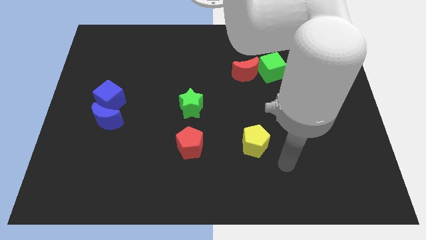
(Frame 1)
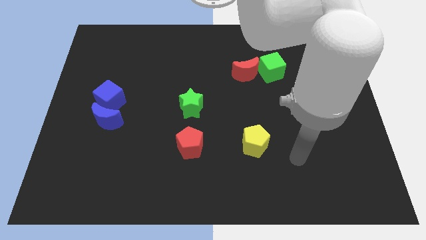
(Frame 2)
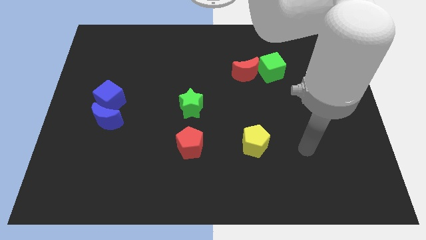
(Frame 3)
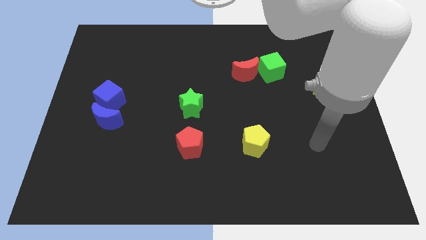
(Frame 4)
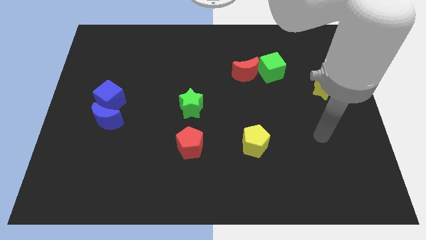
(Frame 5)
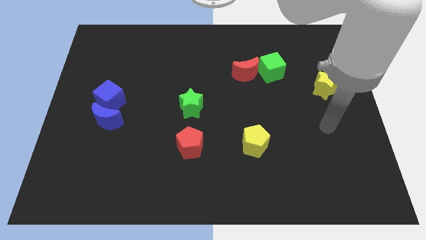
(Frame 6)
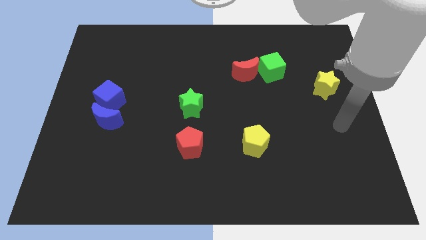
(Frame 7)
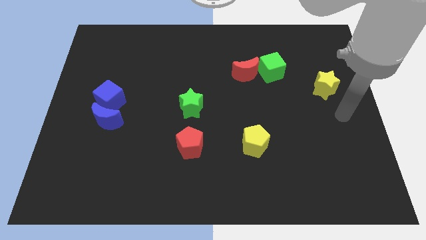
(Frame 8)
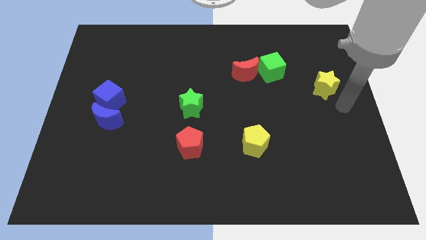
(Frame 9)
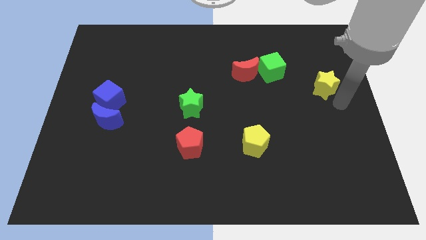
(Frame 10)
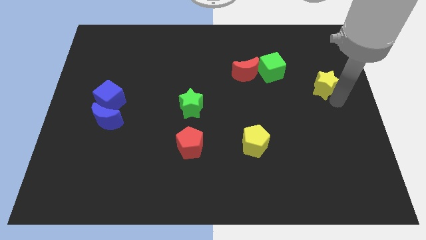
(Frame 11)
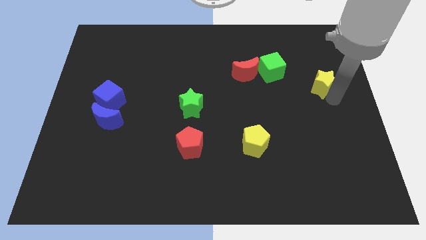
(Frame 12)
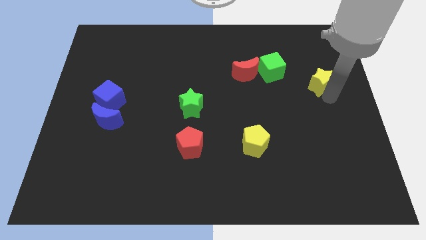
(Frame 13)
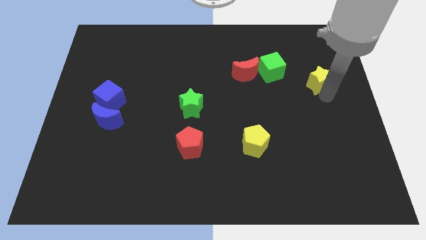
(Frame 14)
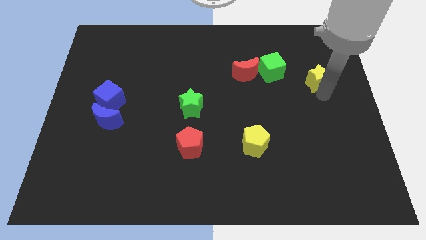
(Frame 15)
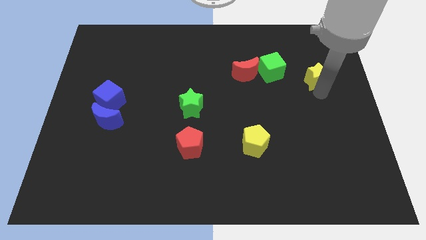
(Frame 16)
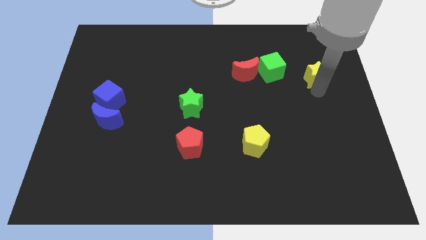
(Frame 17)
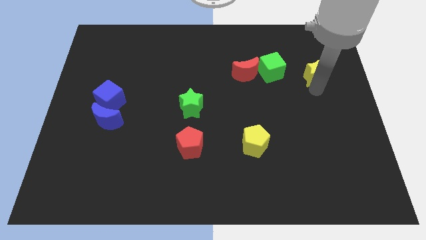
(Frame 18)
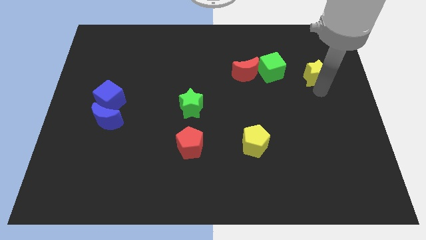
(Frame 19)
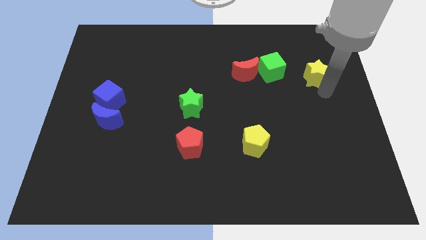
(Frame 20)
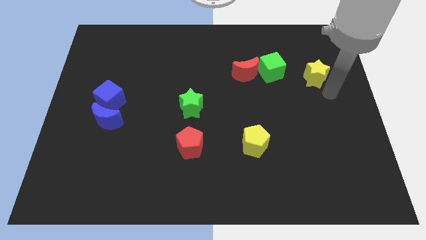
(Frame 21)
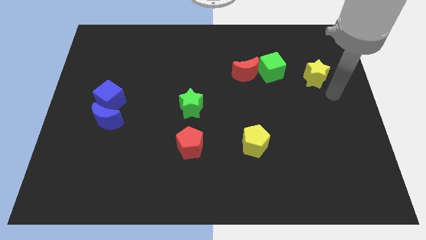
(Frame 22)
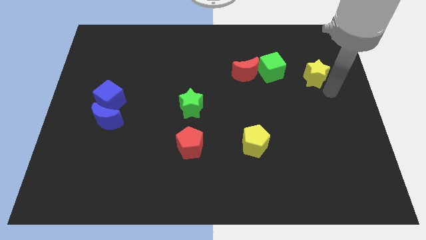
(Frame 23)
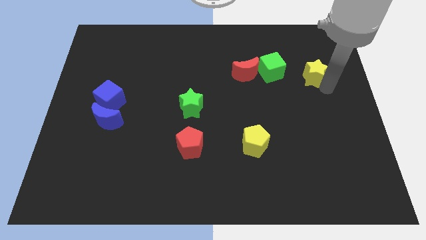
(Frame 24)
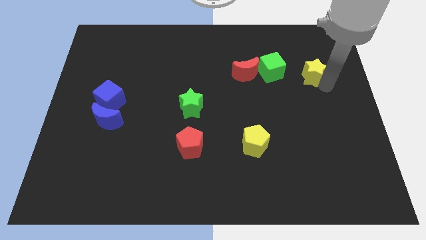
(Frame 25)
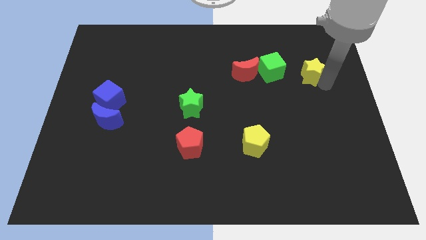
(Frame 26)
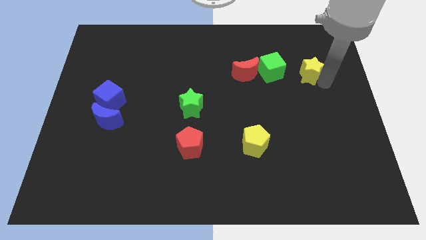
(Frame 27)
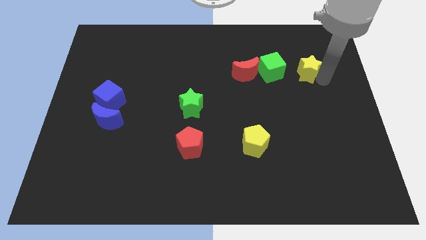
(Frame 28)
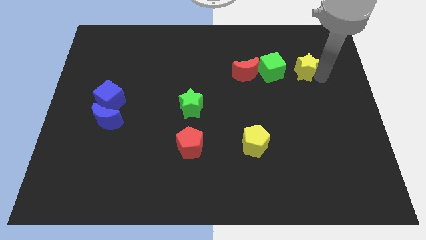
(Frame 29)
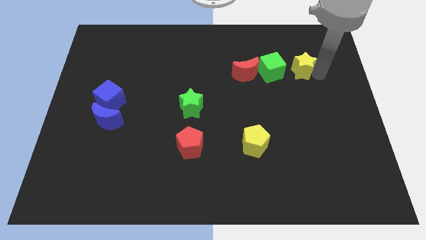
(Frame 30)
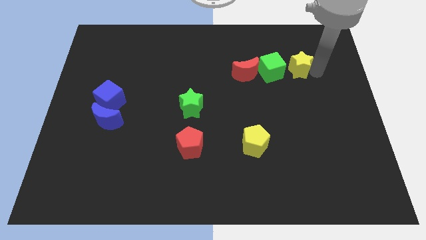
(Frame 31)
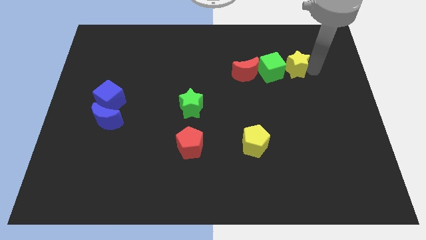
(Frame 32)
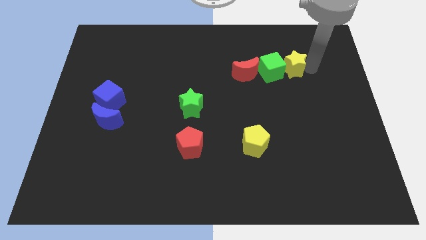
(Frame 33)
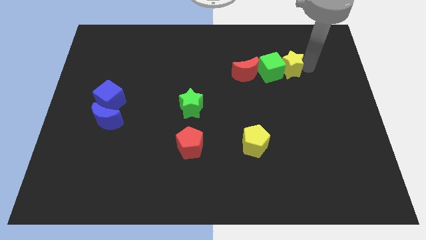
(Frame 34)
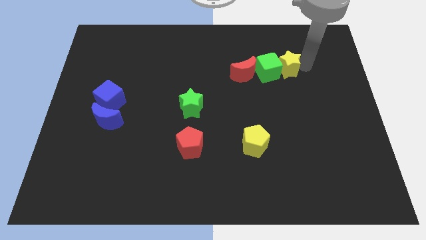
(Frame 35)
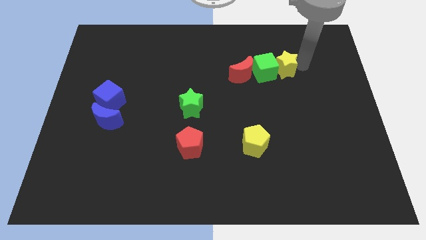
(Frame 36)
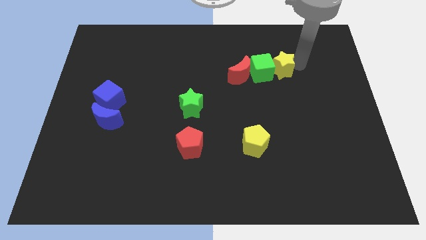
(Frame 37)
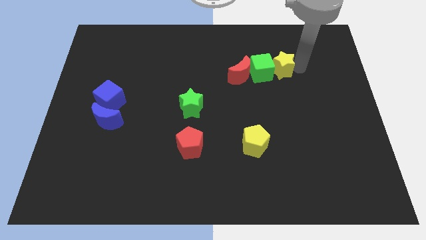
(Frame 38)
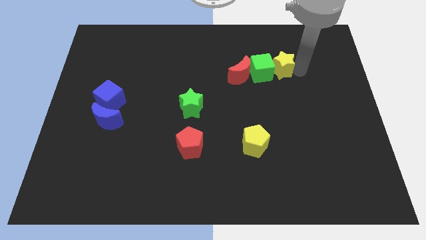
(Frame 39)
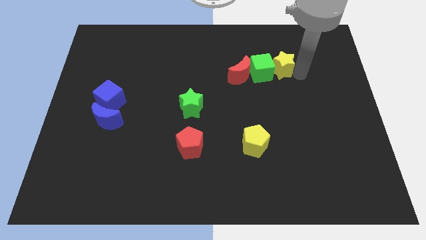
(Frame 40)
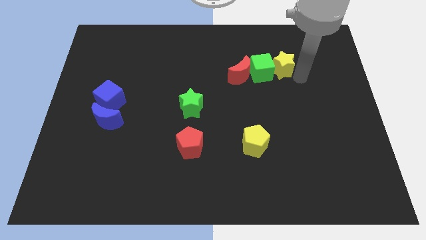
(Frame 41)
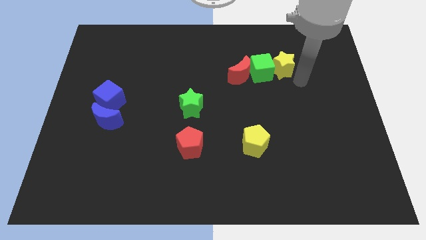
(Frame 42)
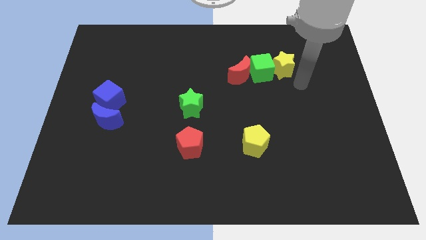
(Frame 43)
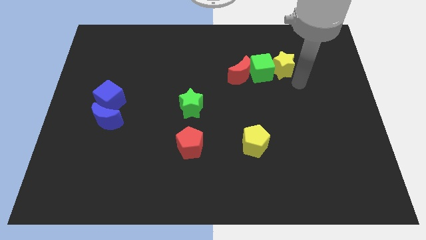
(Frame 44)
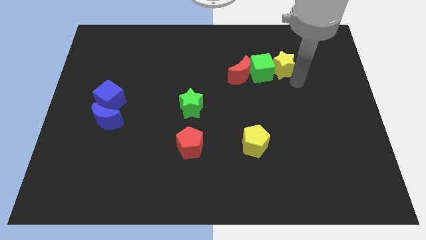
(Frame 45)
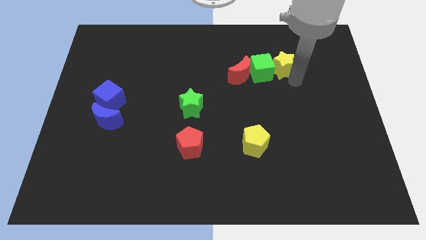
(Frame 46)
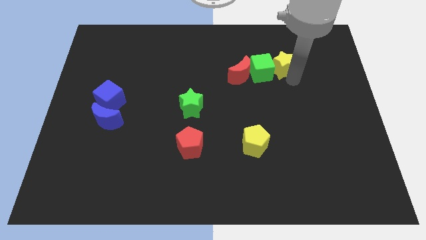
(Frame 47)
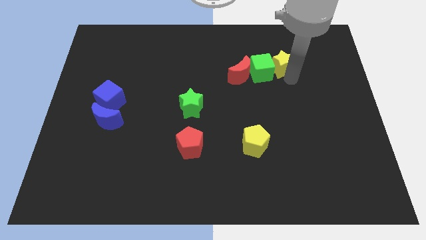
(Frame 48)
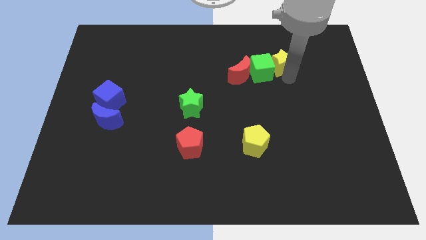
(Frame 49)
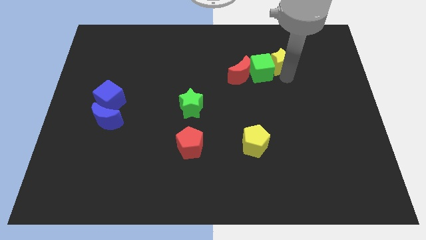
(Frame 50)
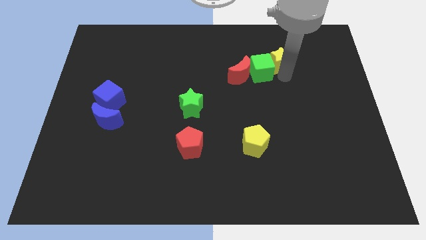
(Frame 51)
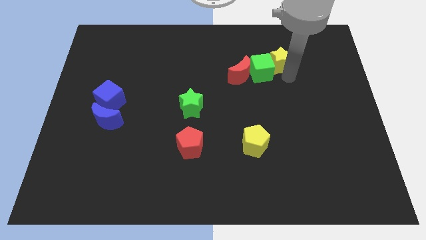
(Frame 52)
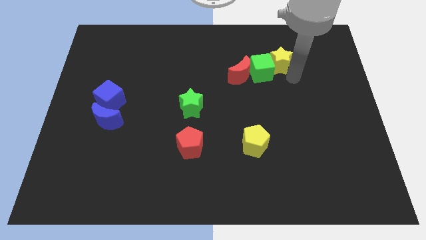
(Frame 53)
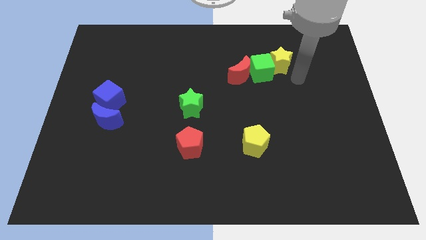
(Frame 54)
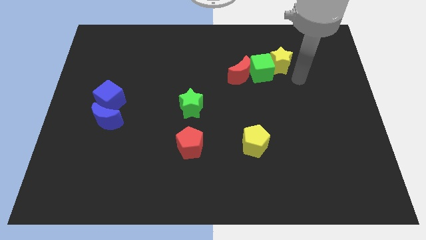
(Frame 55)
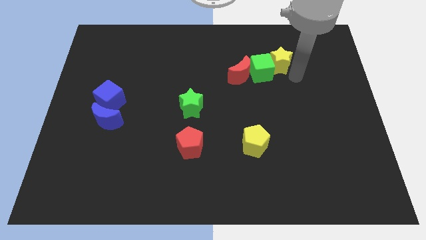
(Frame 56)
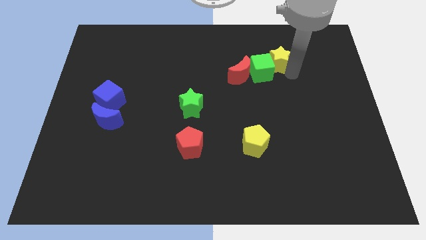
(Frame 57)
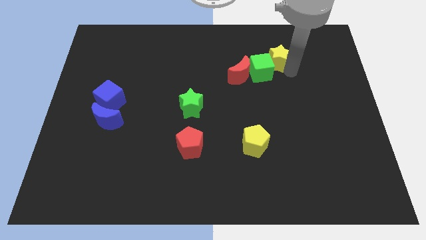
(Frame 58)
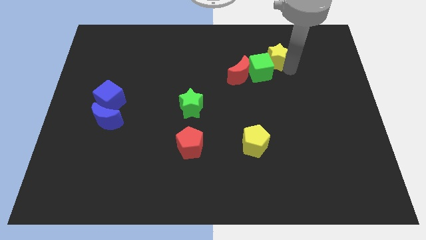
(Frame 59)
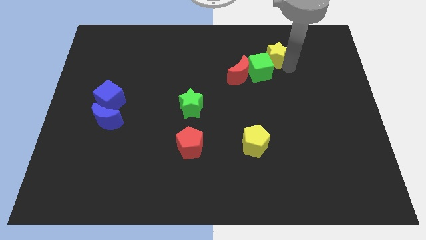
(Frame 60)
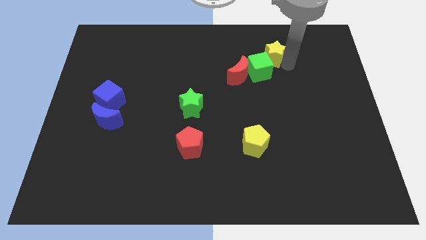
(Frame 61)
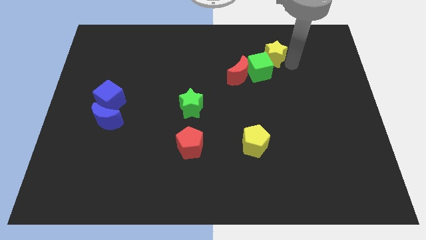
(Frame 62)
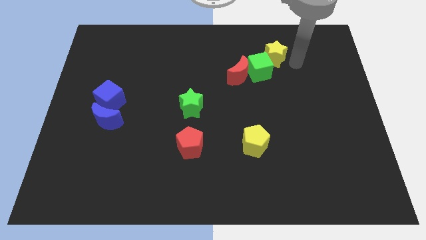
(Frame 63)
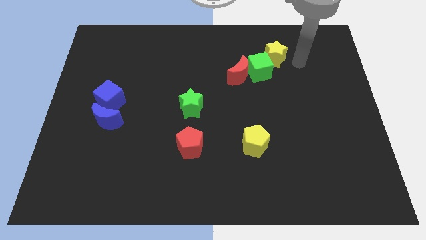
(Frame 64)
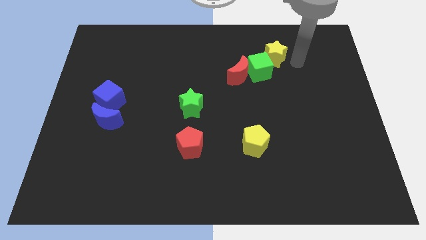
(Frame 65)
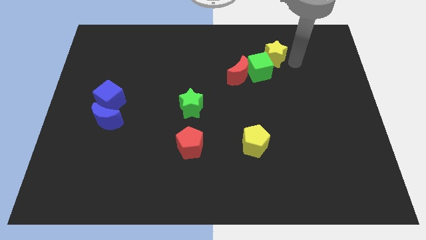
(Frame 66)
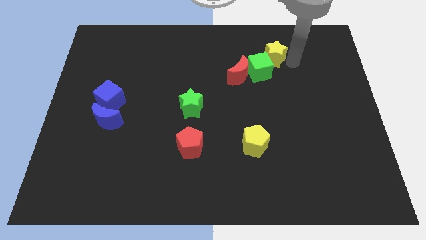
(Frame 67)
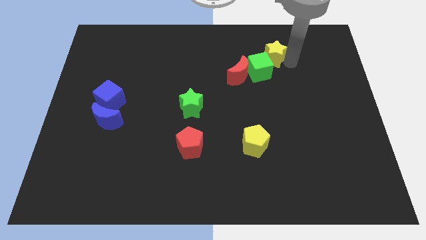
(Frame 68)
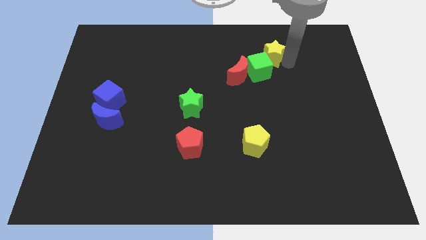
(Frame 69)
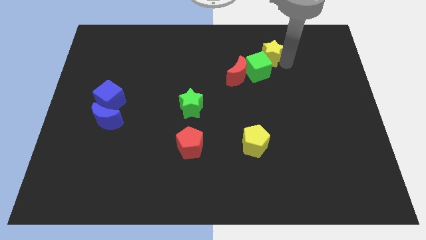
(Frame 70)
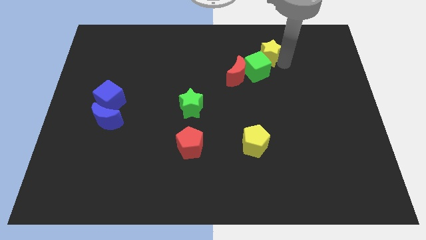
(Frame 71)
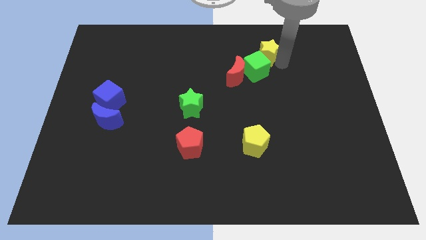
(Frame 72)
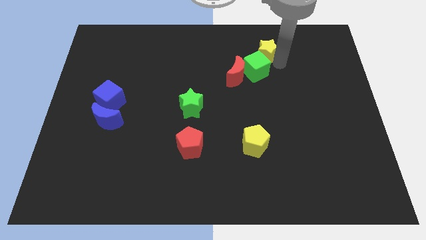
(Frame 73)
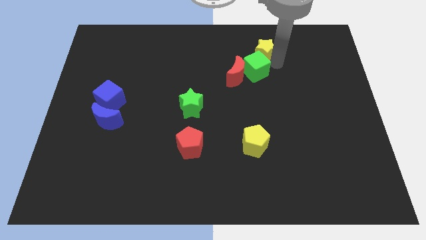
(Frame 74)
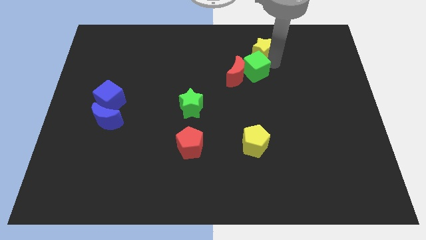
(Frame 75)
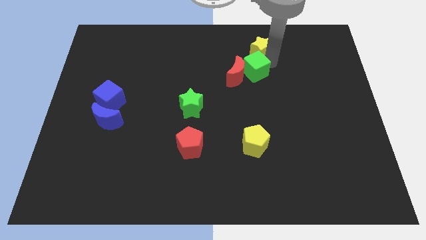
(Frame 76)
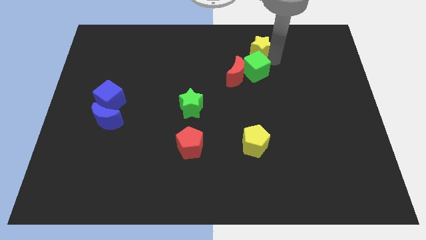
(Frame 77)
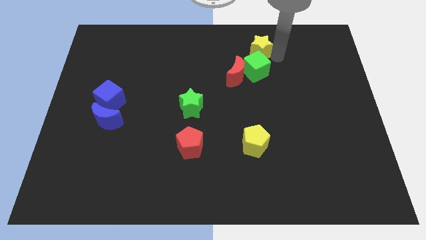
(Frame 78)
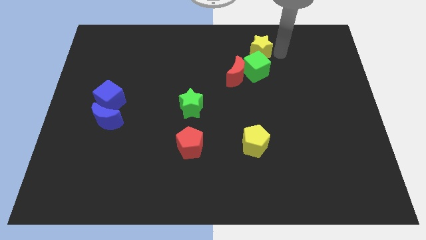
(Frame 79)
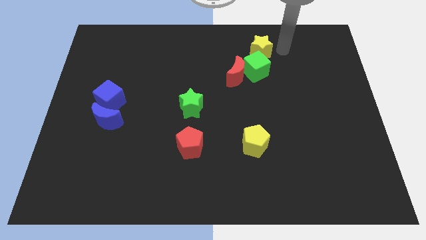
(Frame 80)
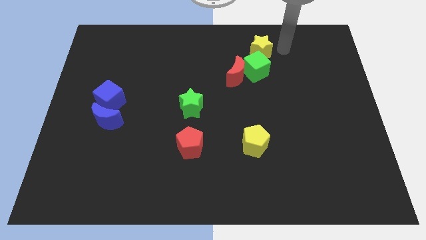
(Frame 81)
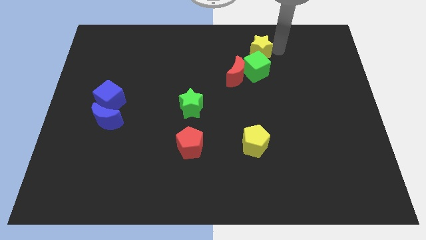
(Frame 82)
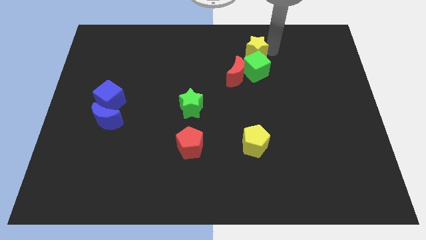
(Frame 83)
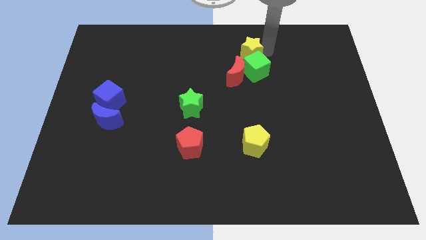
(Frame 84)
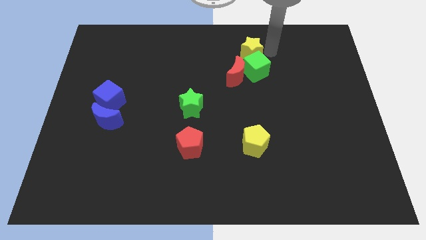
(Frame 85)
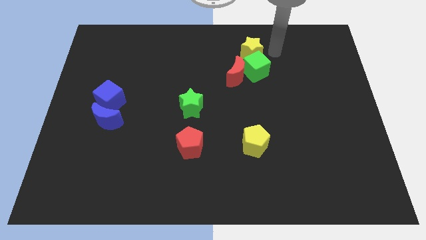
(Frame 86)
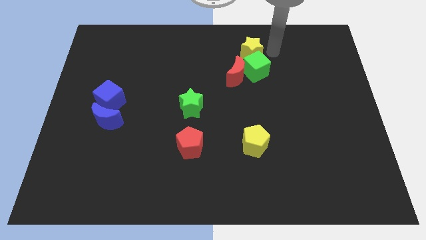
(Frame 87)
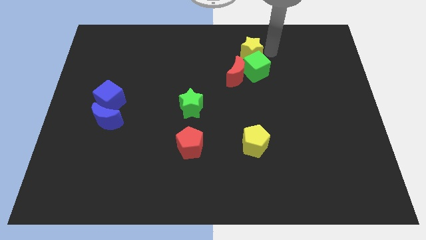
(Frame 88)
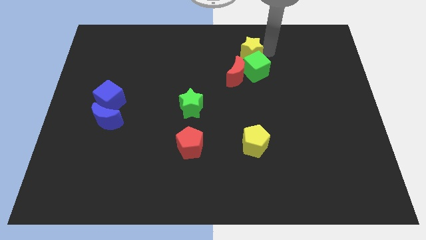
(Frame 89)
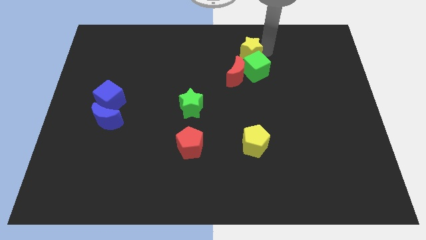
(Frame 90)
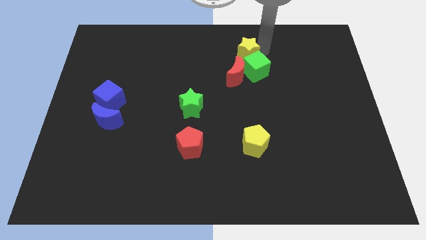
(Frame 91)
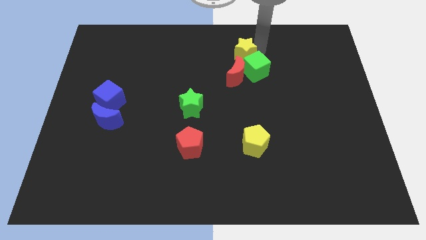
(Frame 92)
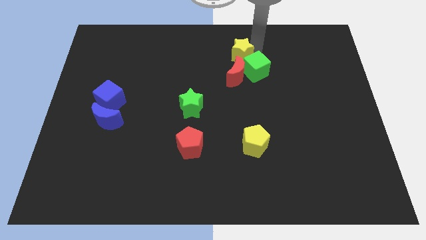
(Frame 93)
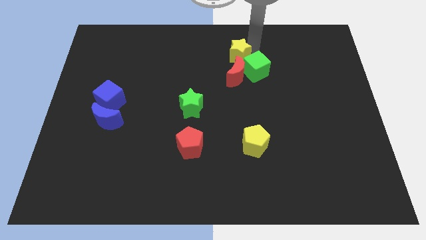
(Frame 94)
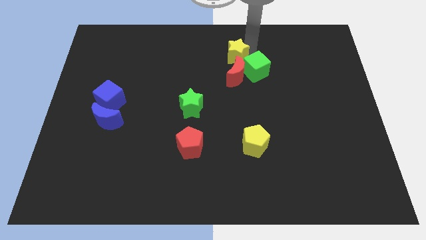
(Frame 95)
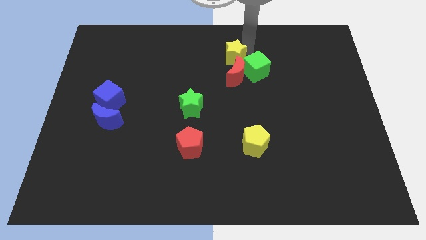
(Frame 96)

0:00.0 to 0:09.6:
slide the yellow star diagonally up and to the left of the red moon
